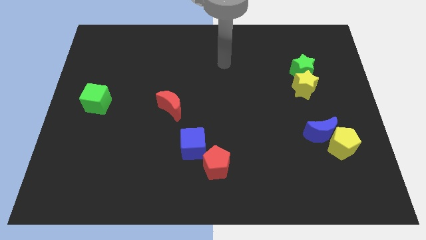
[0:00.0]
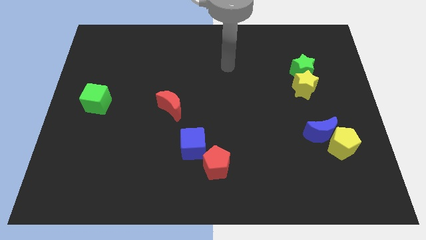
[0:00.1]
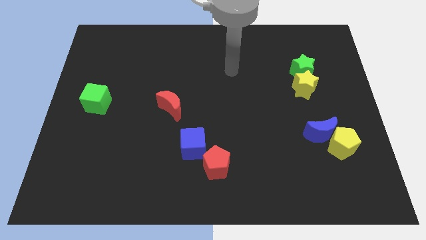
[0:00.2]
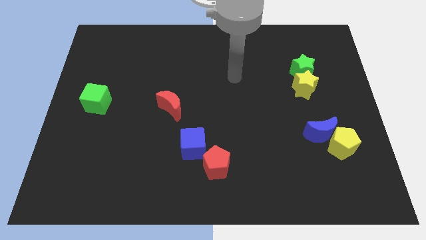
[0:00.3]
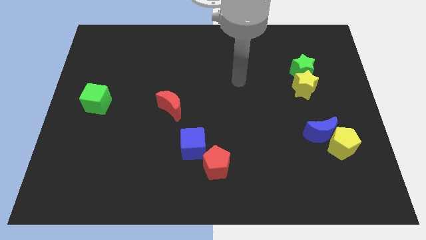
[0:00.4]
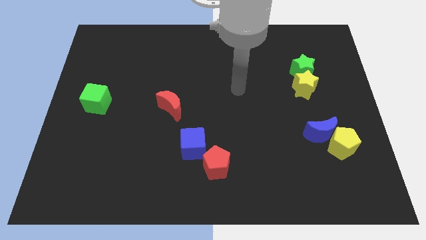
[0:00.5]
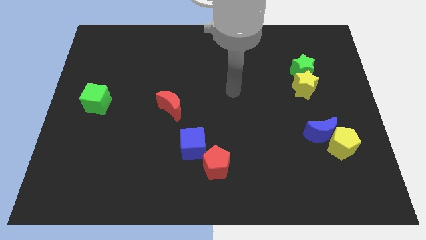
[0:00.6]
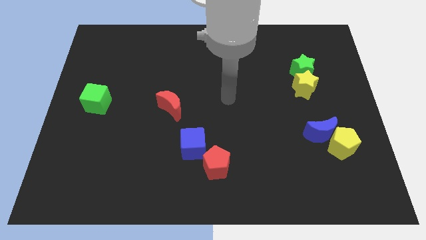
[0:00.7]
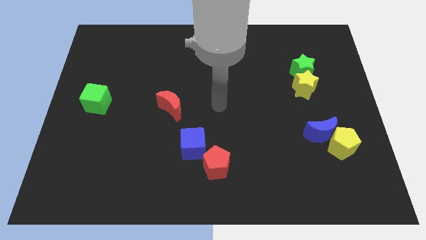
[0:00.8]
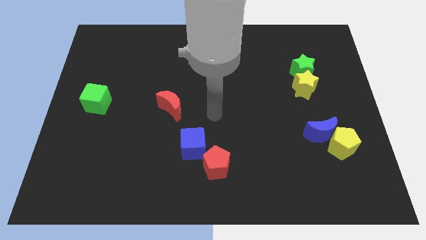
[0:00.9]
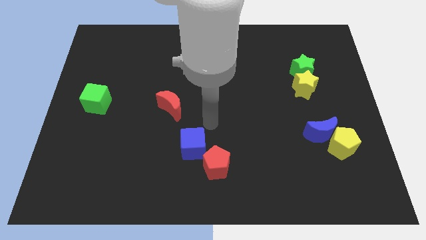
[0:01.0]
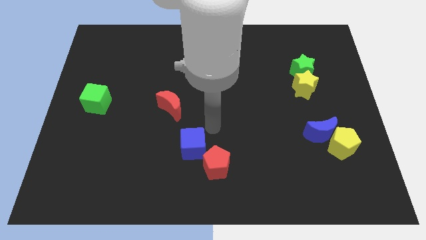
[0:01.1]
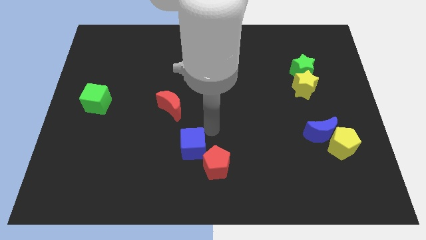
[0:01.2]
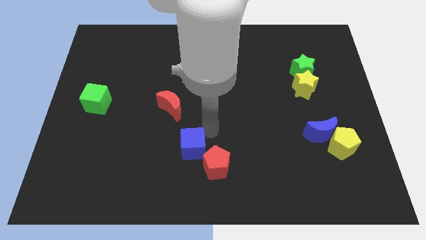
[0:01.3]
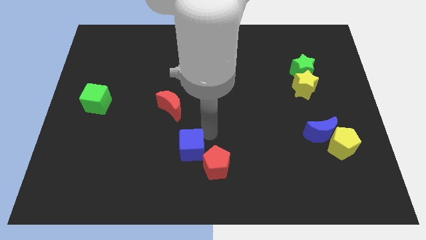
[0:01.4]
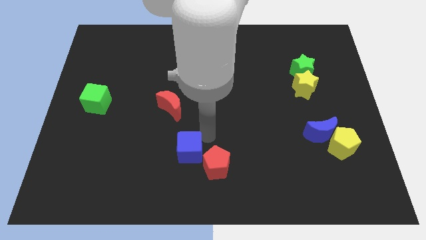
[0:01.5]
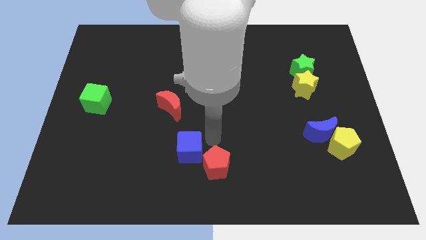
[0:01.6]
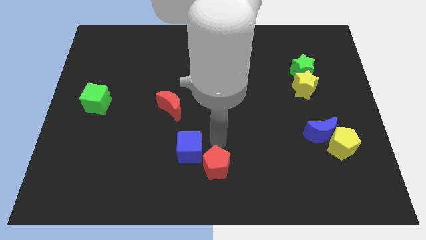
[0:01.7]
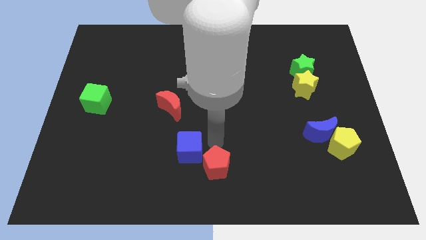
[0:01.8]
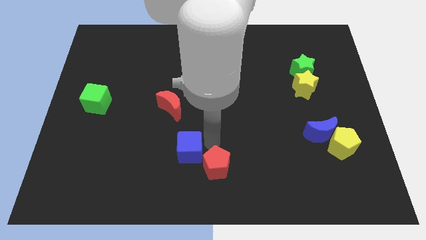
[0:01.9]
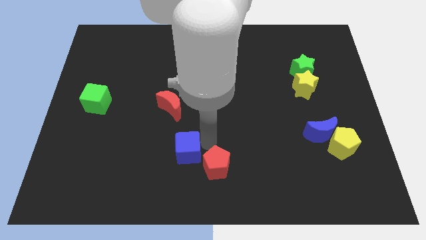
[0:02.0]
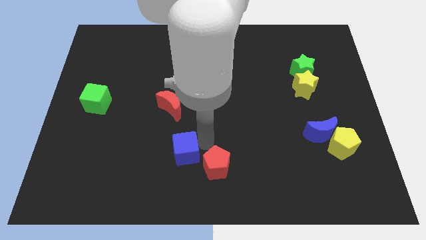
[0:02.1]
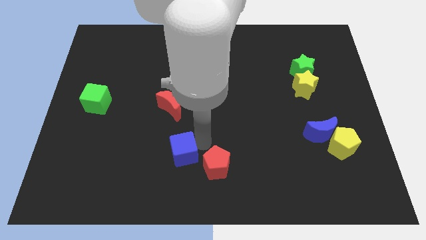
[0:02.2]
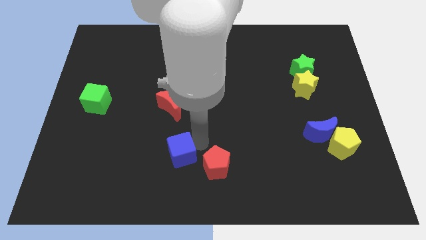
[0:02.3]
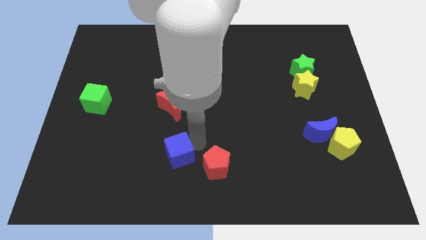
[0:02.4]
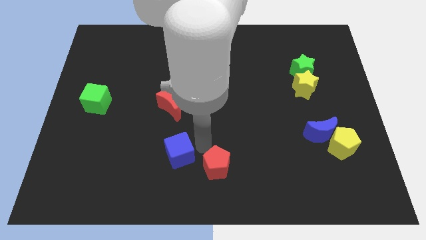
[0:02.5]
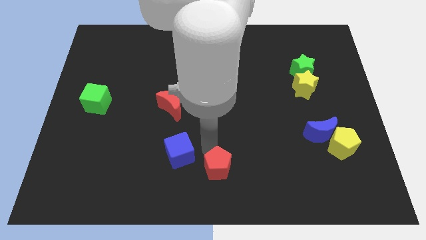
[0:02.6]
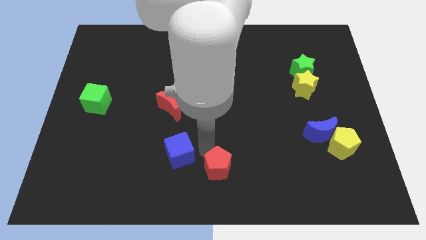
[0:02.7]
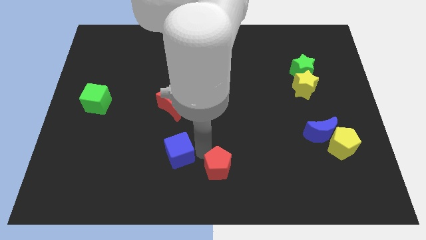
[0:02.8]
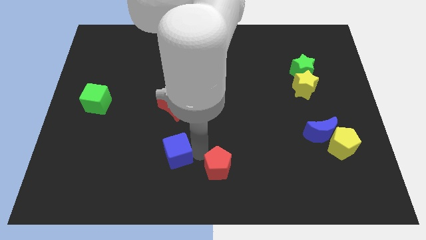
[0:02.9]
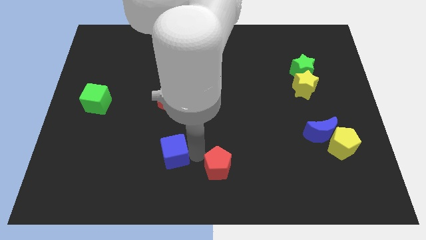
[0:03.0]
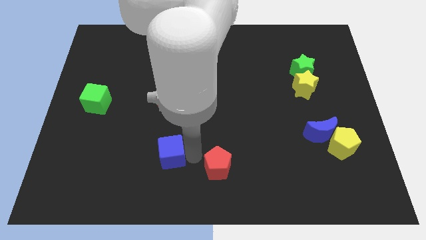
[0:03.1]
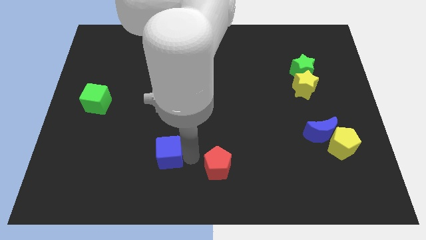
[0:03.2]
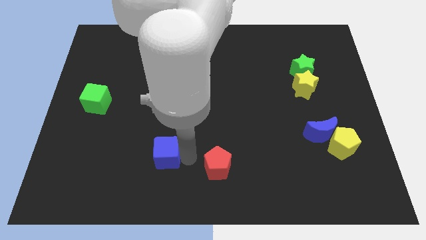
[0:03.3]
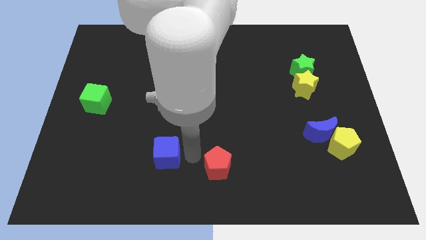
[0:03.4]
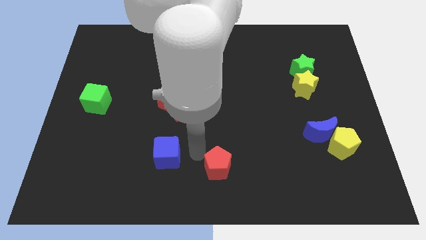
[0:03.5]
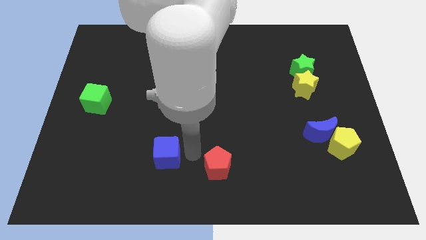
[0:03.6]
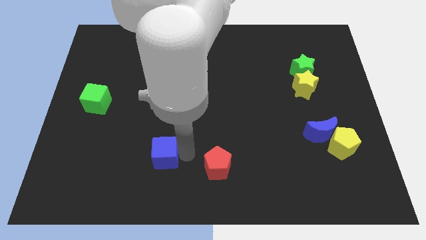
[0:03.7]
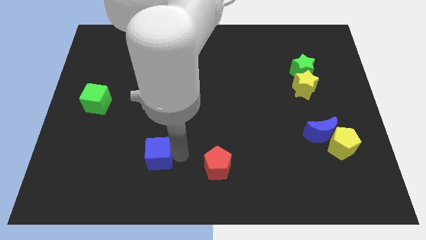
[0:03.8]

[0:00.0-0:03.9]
push the blue cube left a little

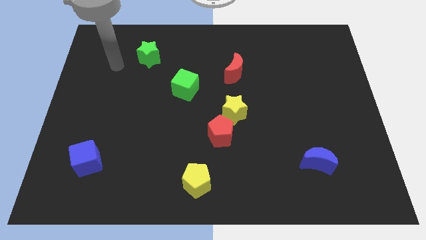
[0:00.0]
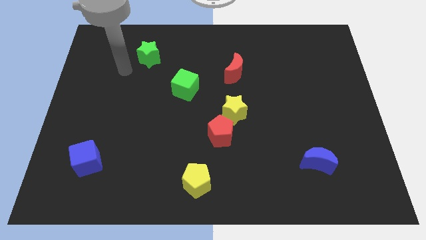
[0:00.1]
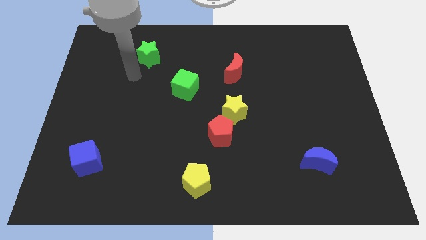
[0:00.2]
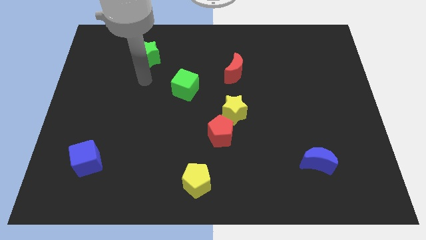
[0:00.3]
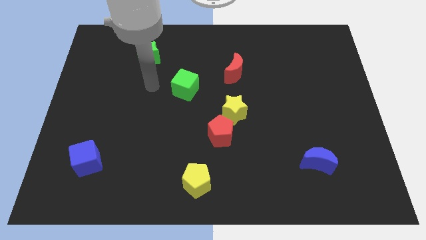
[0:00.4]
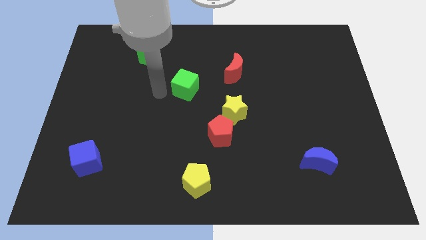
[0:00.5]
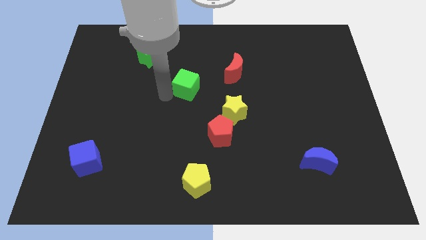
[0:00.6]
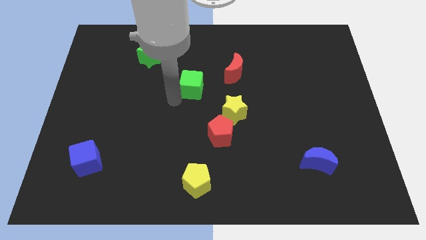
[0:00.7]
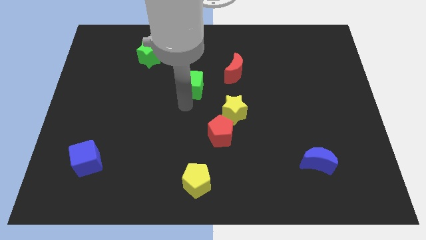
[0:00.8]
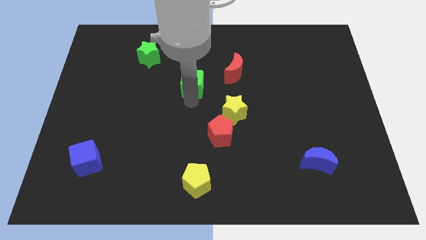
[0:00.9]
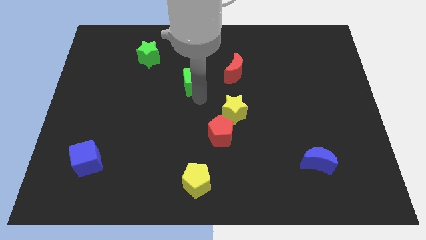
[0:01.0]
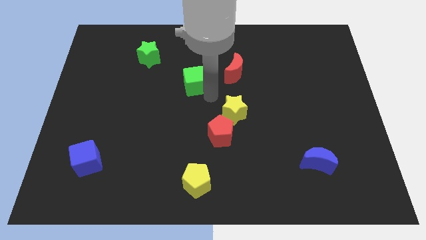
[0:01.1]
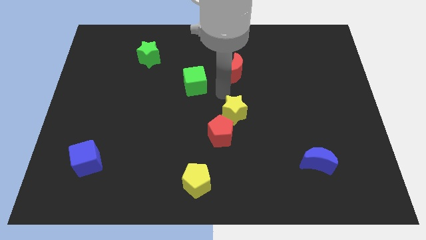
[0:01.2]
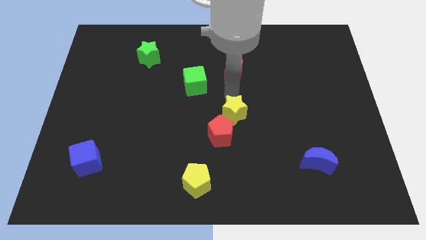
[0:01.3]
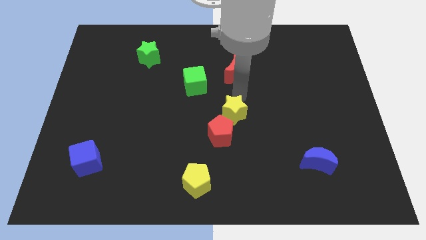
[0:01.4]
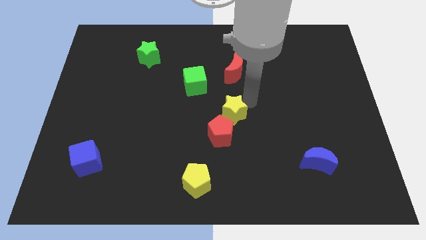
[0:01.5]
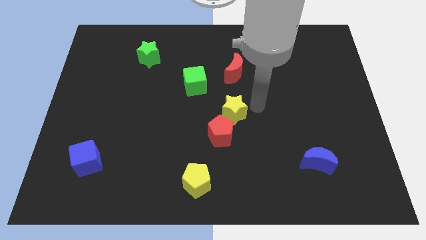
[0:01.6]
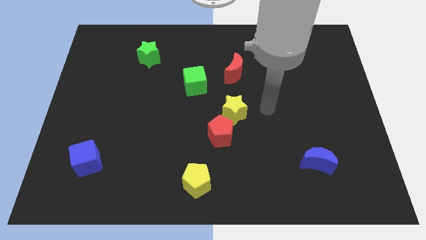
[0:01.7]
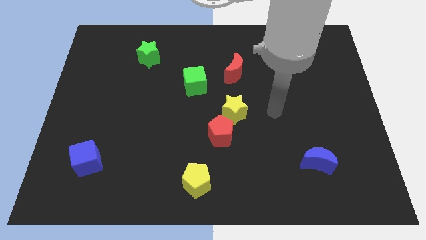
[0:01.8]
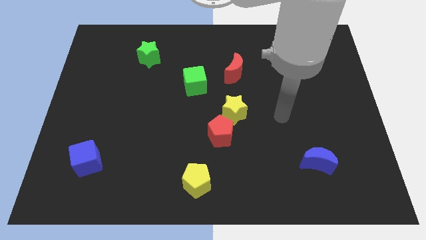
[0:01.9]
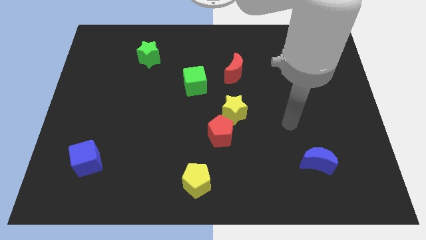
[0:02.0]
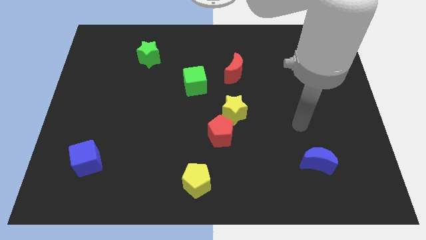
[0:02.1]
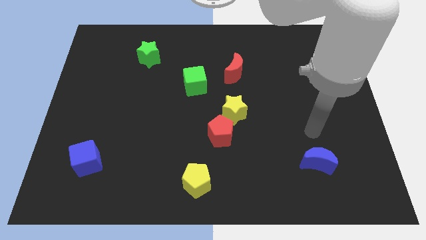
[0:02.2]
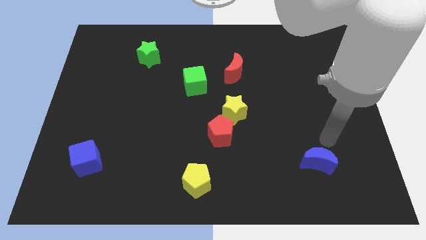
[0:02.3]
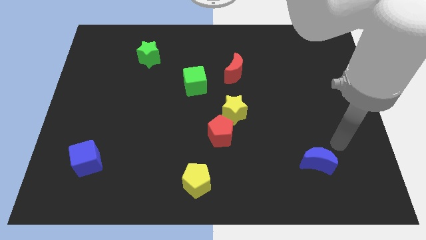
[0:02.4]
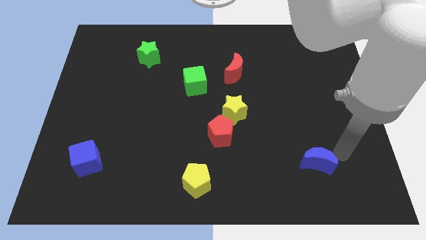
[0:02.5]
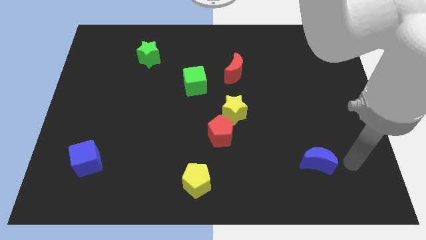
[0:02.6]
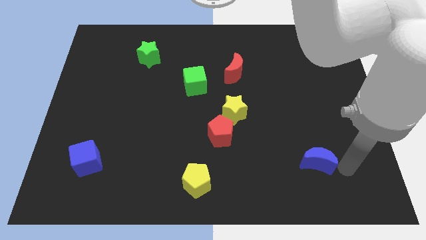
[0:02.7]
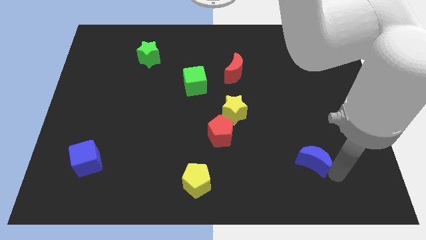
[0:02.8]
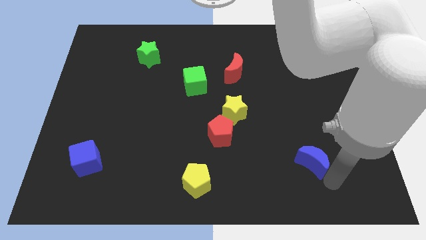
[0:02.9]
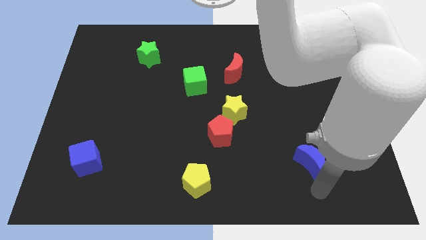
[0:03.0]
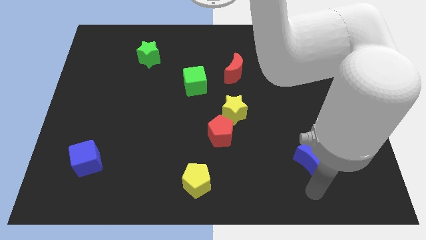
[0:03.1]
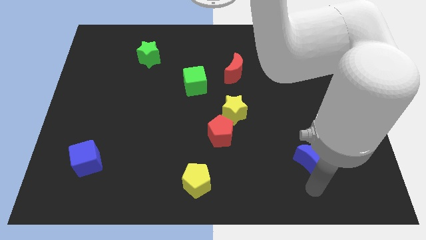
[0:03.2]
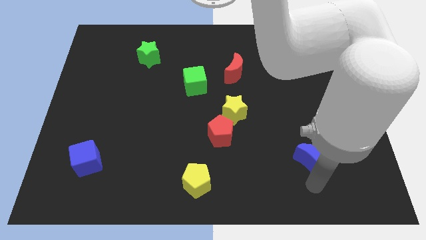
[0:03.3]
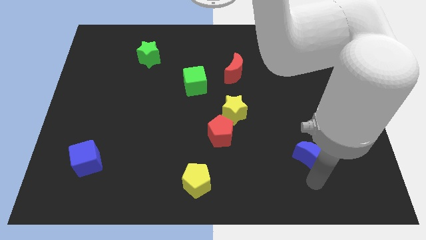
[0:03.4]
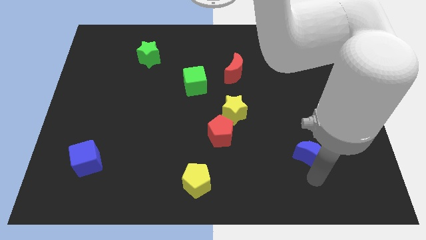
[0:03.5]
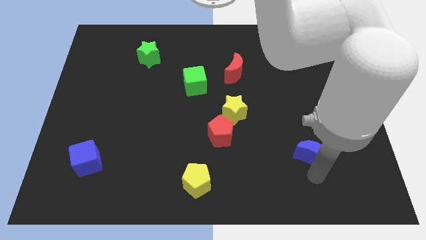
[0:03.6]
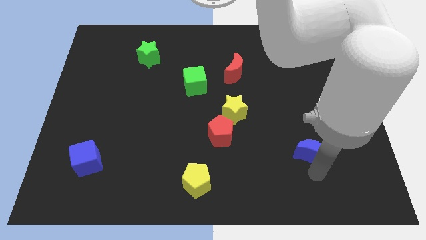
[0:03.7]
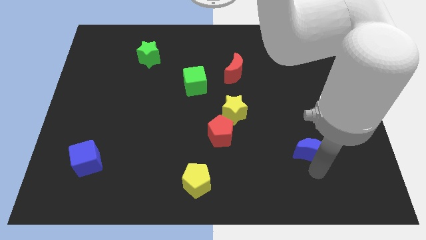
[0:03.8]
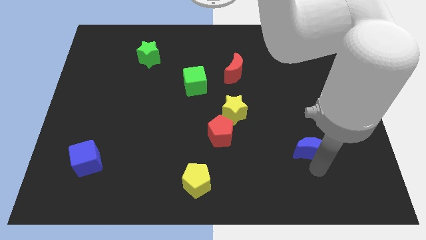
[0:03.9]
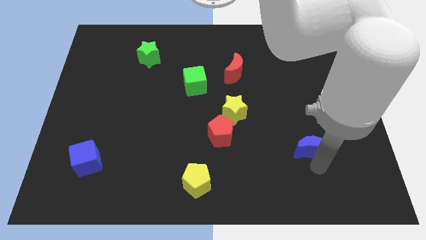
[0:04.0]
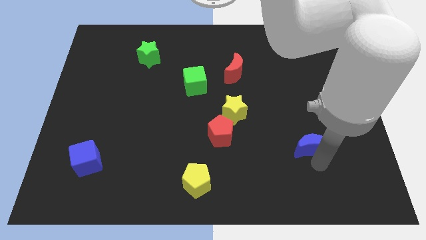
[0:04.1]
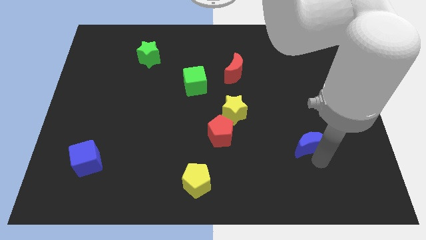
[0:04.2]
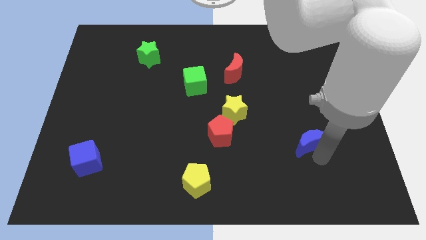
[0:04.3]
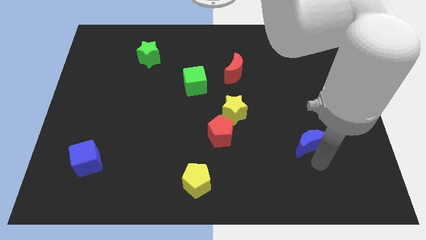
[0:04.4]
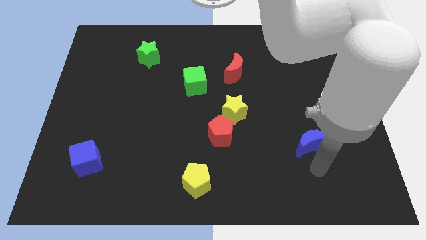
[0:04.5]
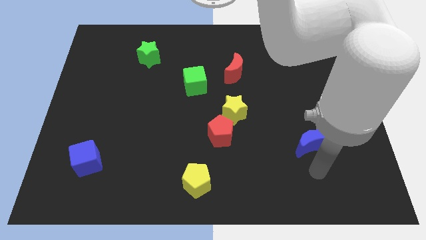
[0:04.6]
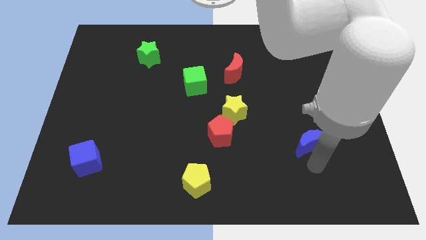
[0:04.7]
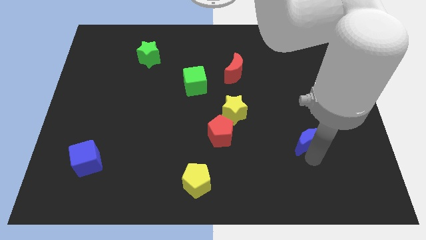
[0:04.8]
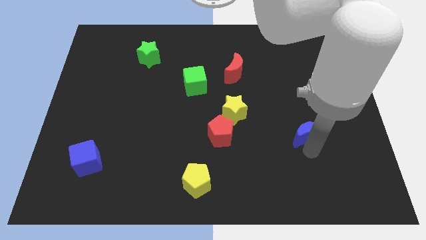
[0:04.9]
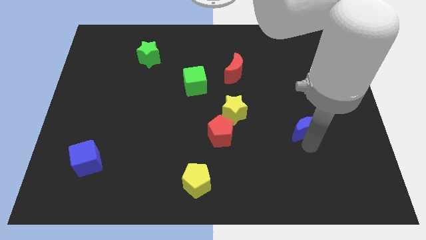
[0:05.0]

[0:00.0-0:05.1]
push the blue moon a little bit upwards
